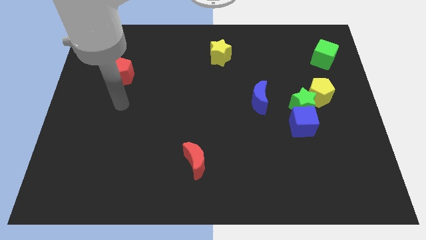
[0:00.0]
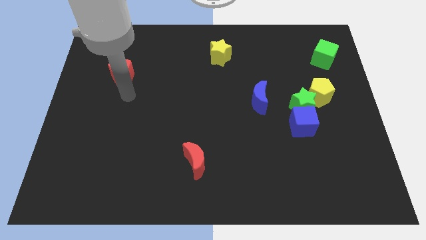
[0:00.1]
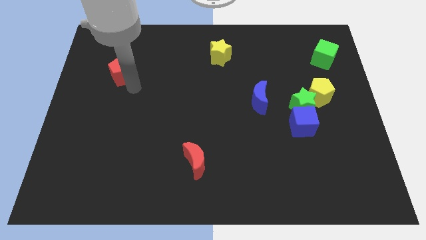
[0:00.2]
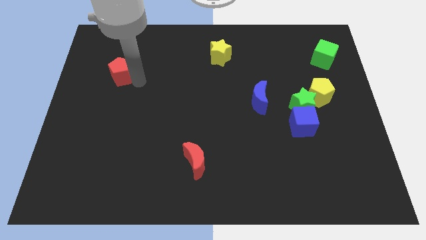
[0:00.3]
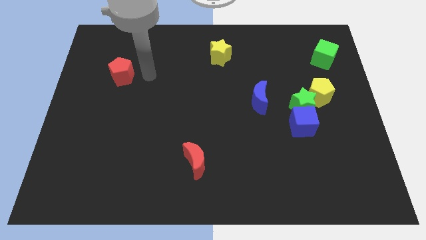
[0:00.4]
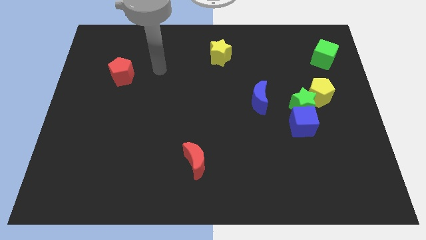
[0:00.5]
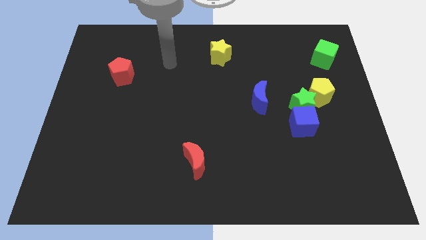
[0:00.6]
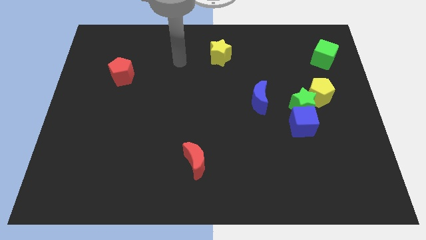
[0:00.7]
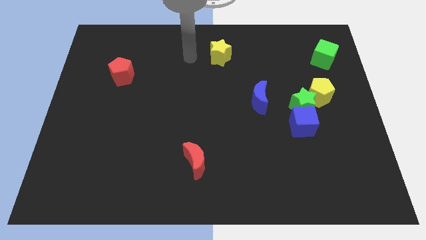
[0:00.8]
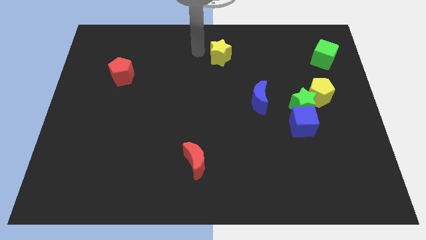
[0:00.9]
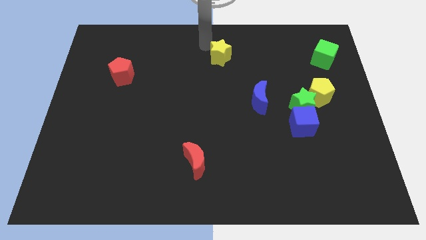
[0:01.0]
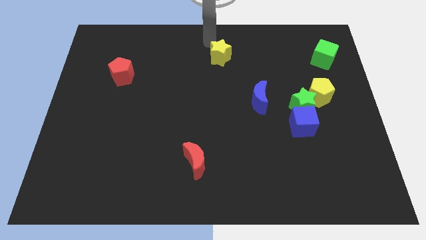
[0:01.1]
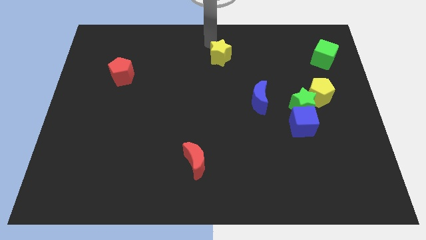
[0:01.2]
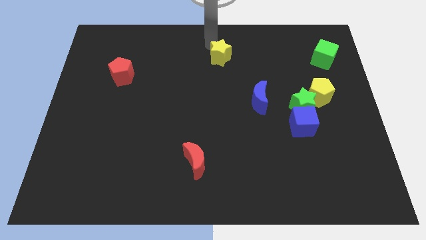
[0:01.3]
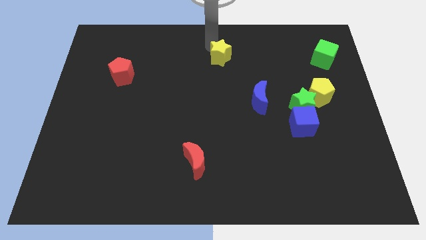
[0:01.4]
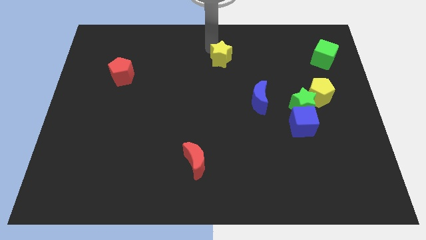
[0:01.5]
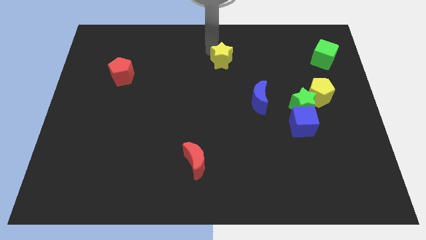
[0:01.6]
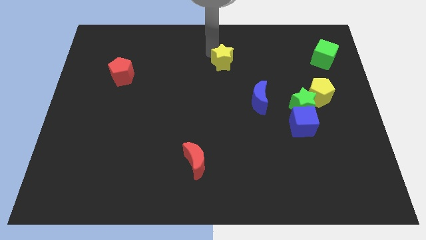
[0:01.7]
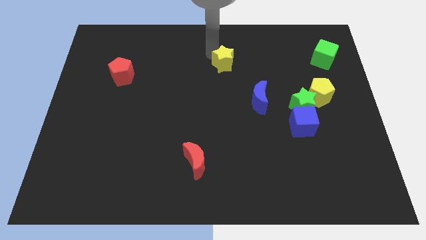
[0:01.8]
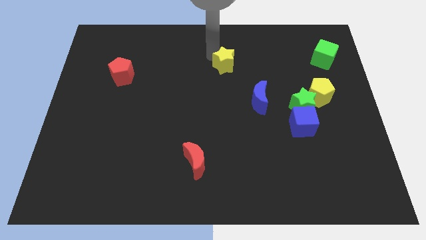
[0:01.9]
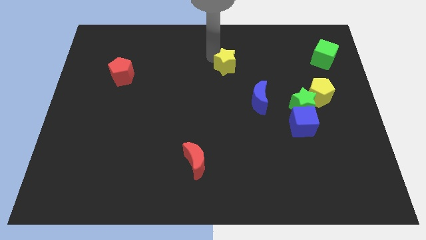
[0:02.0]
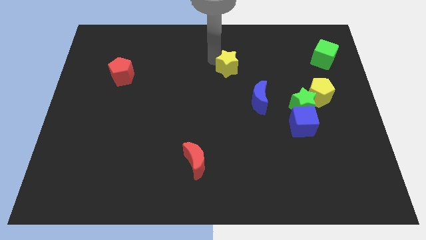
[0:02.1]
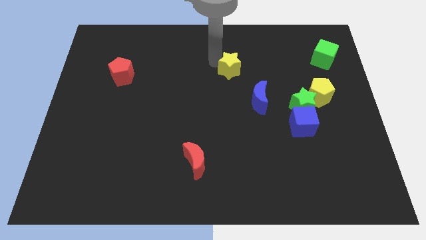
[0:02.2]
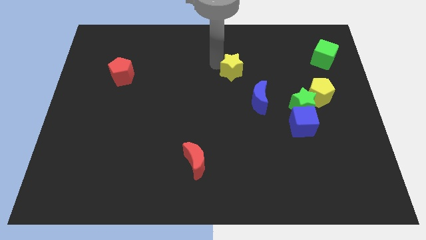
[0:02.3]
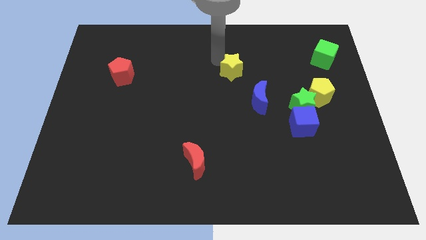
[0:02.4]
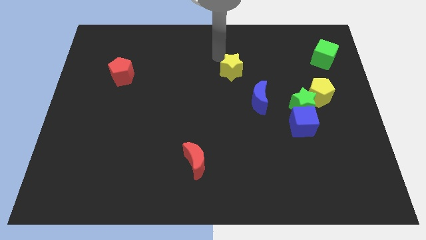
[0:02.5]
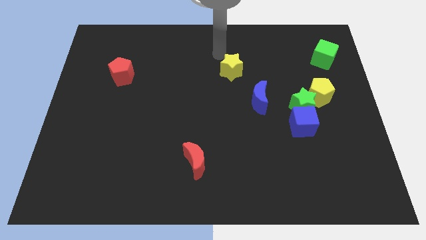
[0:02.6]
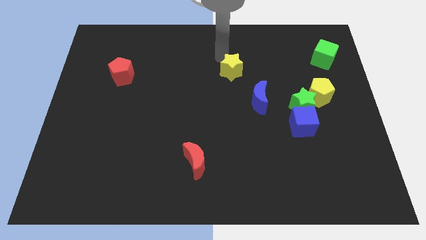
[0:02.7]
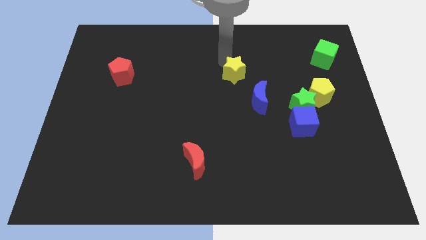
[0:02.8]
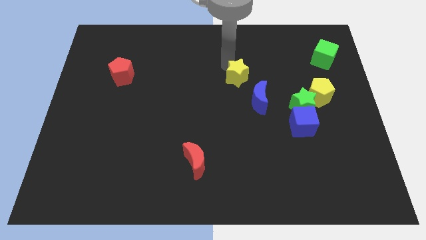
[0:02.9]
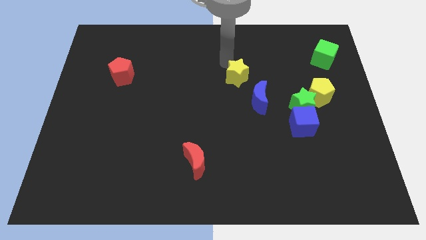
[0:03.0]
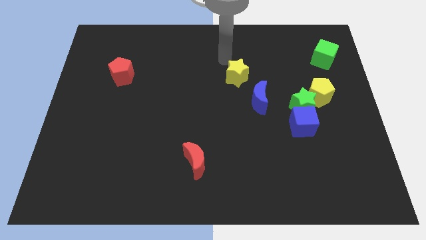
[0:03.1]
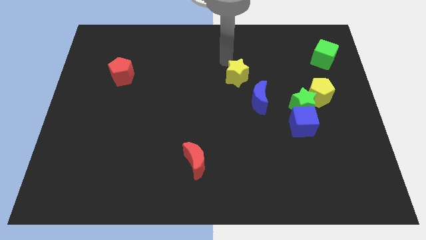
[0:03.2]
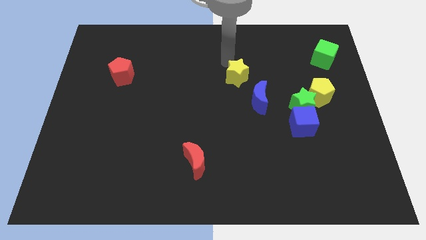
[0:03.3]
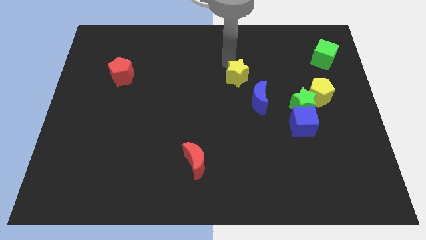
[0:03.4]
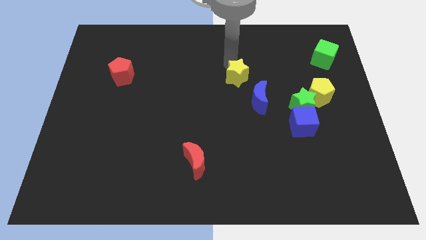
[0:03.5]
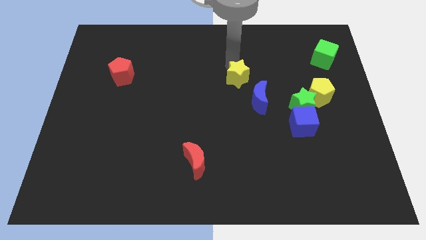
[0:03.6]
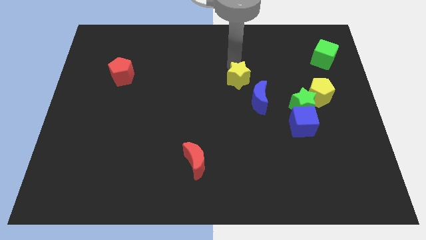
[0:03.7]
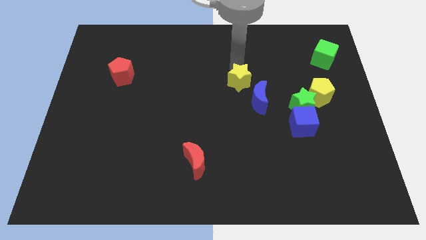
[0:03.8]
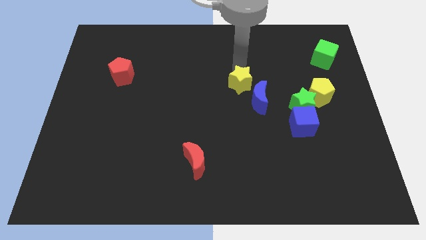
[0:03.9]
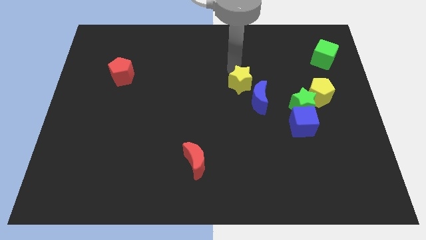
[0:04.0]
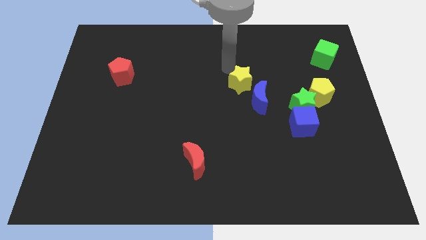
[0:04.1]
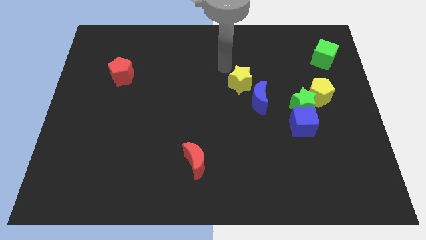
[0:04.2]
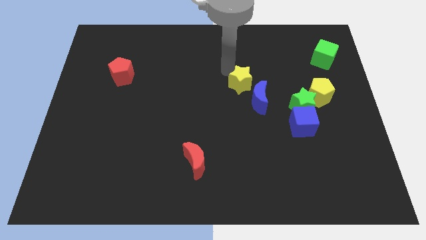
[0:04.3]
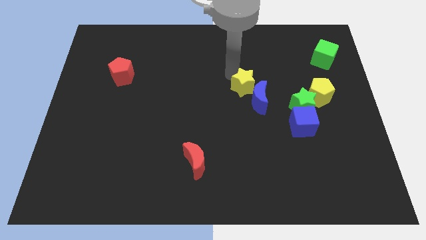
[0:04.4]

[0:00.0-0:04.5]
move the yellow star next to the blue moon

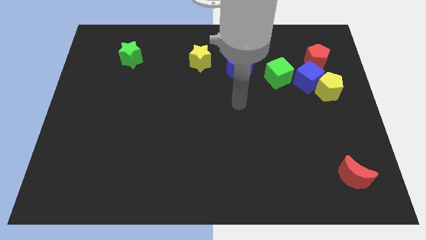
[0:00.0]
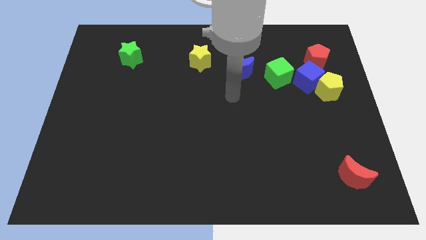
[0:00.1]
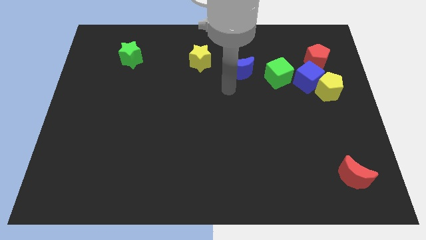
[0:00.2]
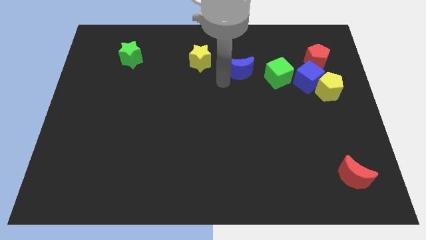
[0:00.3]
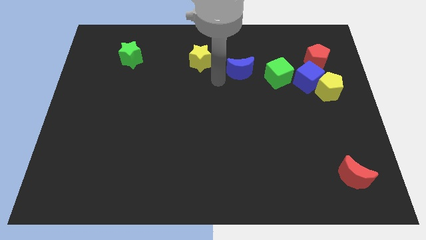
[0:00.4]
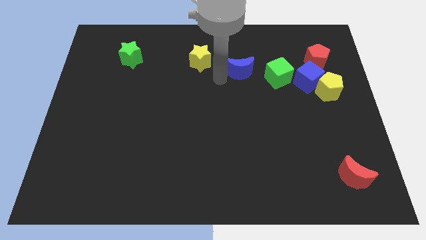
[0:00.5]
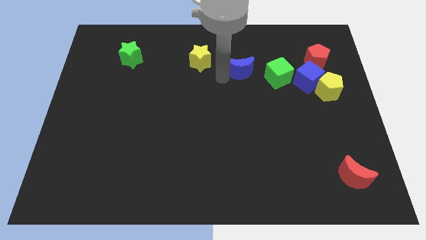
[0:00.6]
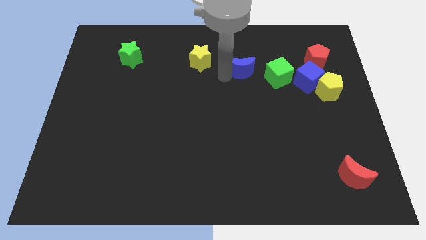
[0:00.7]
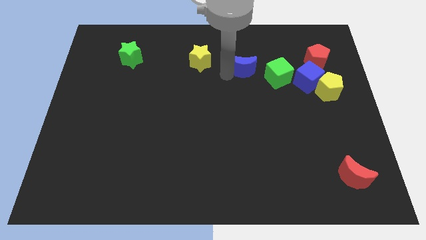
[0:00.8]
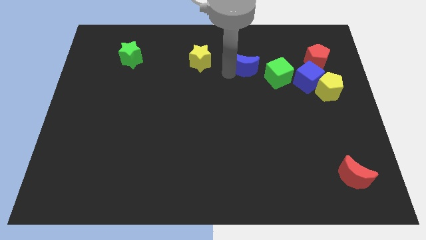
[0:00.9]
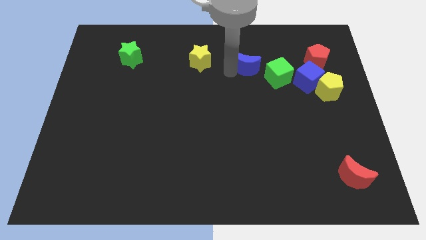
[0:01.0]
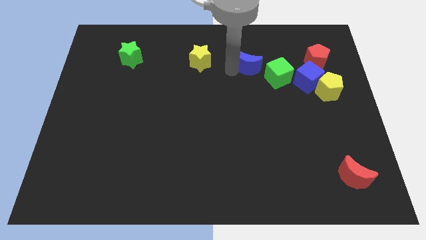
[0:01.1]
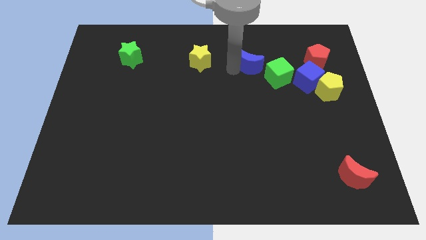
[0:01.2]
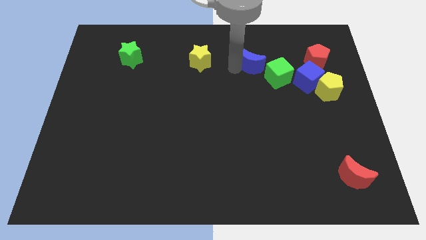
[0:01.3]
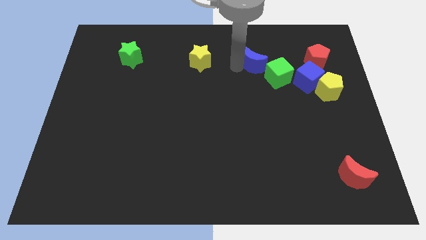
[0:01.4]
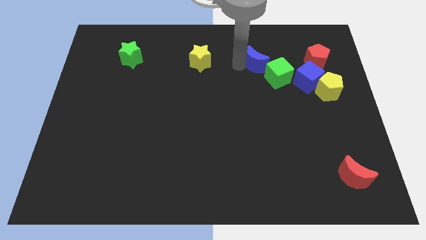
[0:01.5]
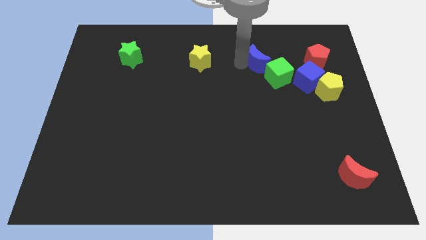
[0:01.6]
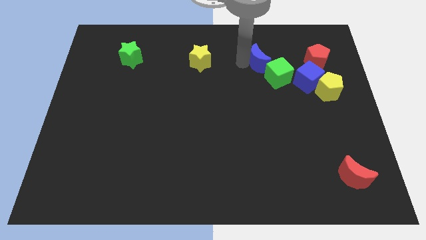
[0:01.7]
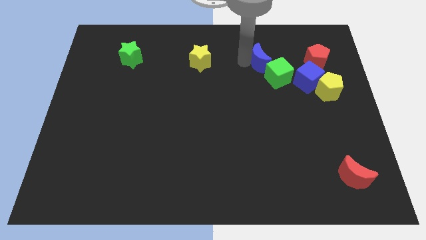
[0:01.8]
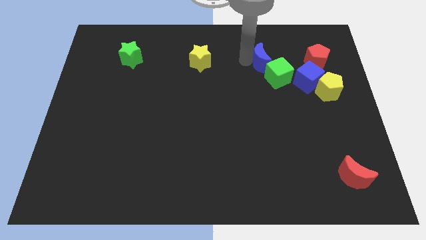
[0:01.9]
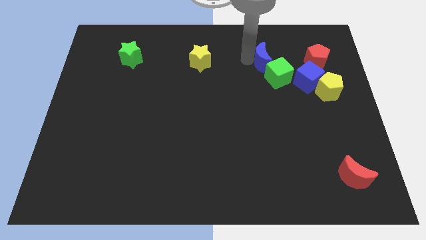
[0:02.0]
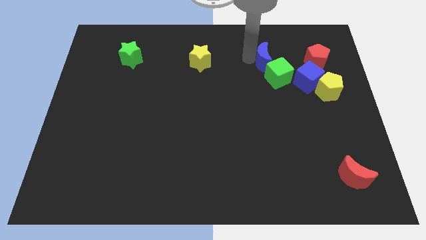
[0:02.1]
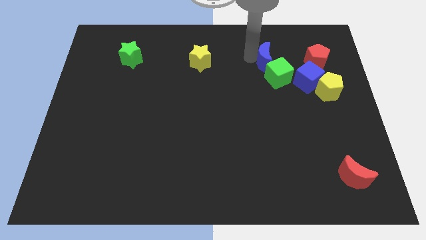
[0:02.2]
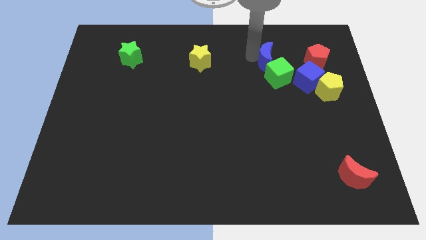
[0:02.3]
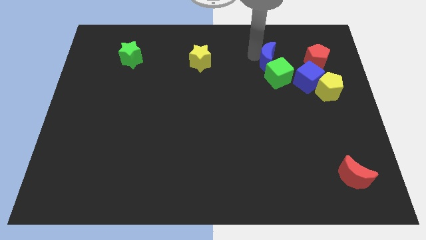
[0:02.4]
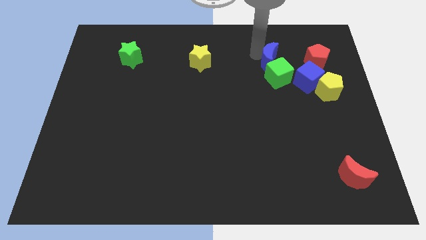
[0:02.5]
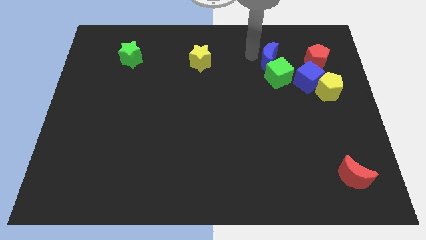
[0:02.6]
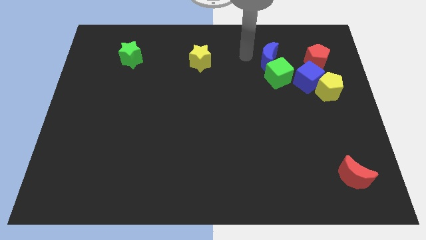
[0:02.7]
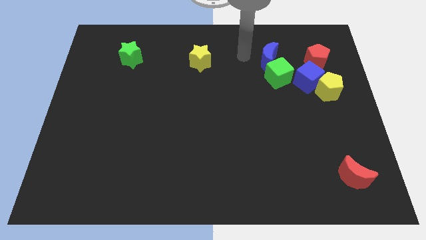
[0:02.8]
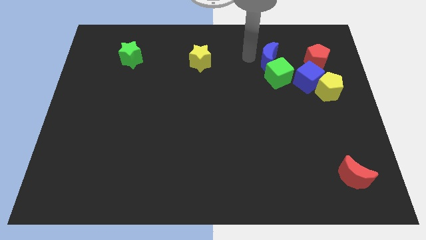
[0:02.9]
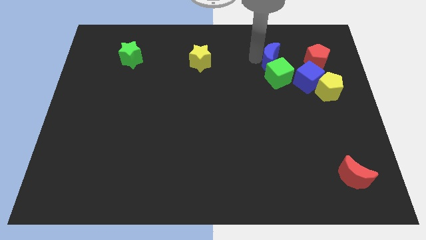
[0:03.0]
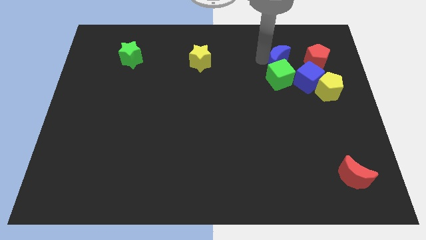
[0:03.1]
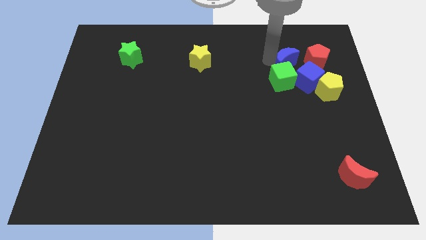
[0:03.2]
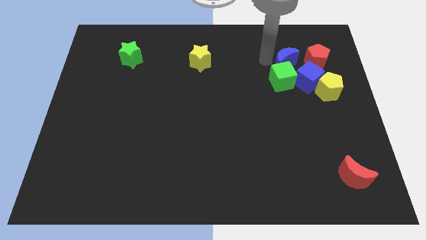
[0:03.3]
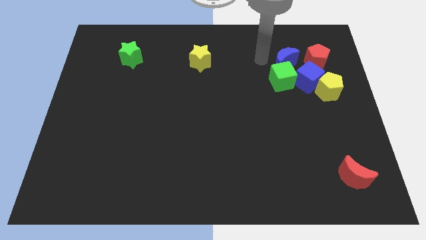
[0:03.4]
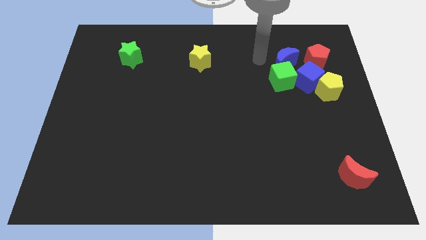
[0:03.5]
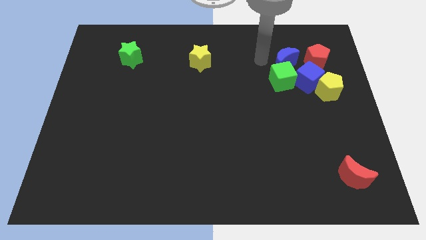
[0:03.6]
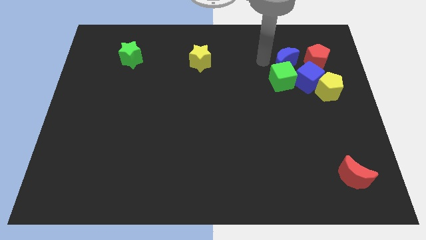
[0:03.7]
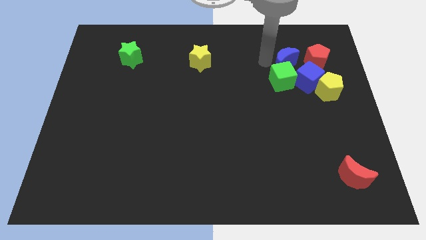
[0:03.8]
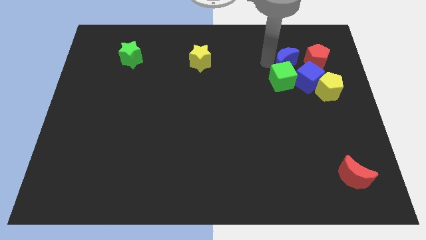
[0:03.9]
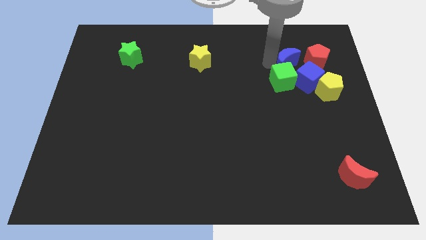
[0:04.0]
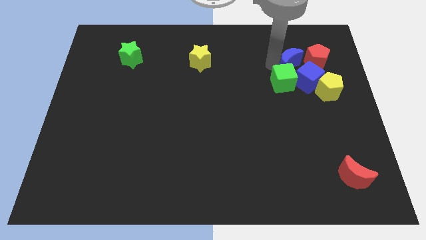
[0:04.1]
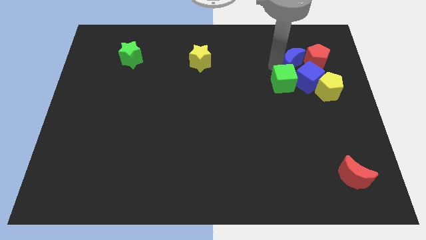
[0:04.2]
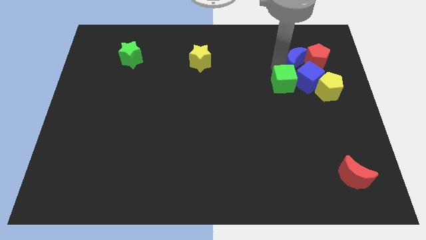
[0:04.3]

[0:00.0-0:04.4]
push the blue moon close to the red pentagon
